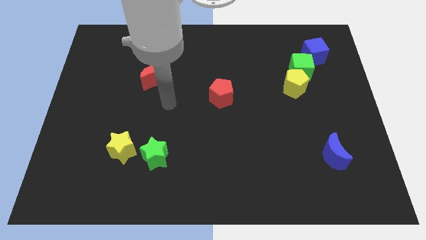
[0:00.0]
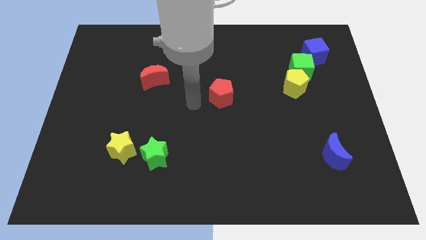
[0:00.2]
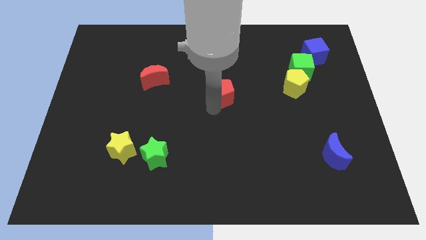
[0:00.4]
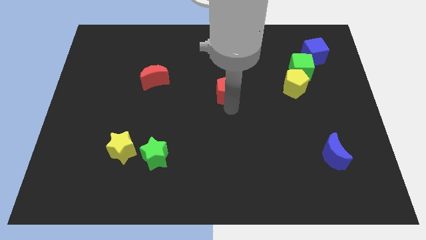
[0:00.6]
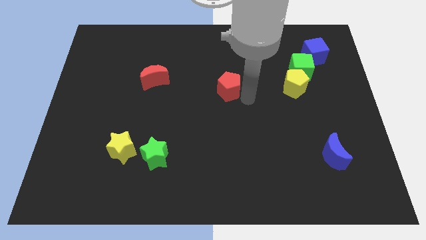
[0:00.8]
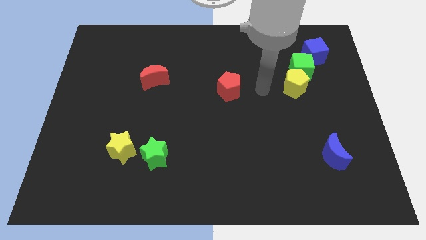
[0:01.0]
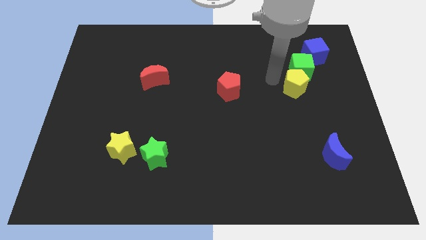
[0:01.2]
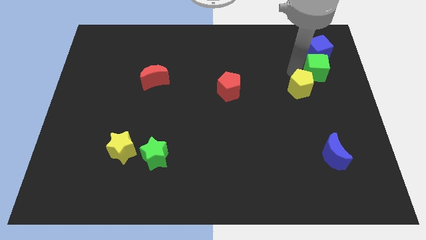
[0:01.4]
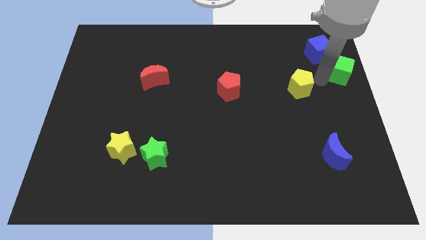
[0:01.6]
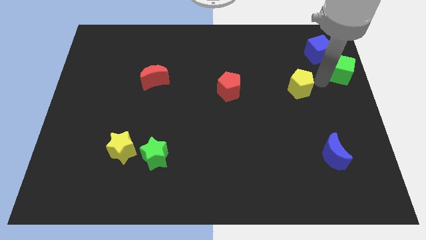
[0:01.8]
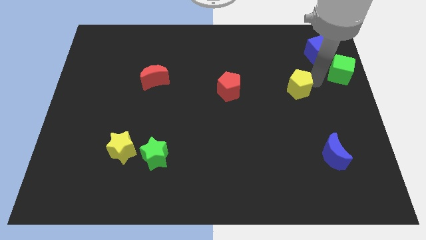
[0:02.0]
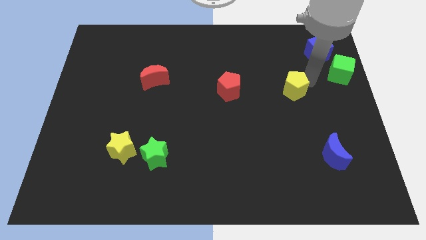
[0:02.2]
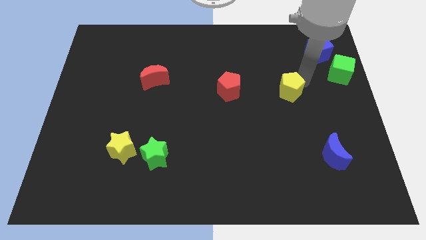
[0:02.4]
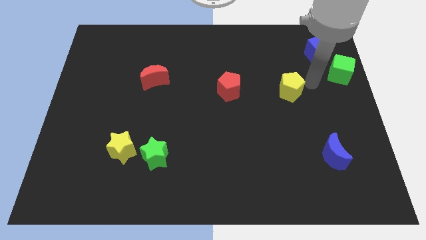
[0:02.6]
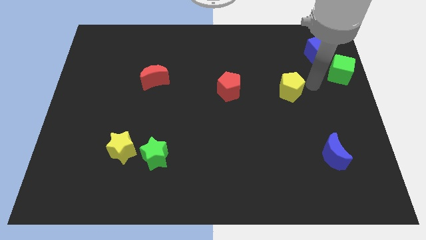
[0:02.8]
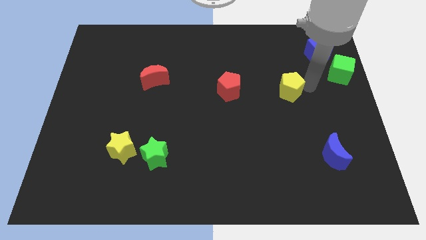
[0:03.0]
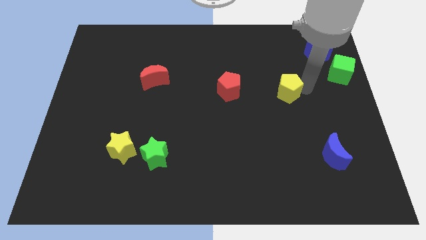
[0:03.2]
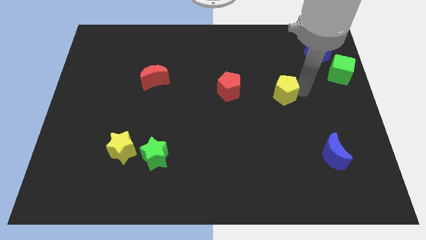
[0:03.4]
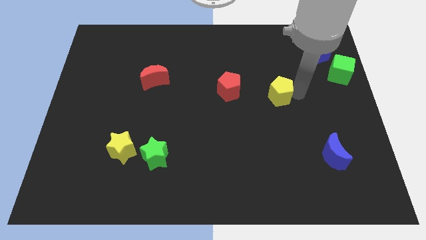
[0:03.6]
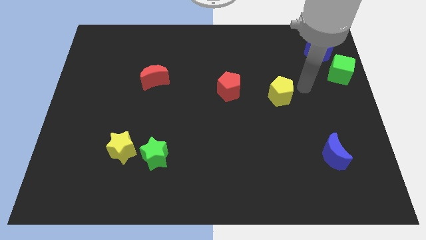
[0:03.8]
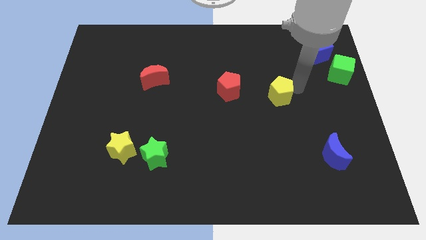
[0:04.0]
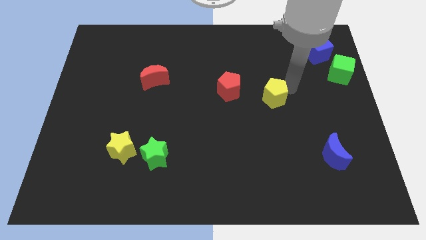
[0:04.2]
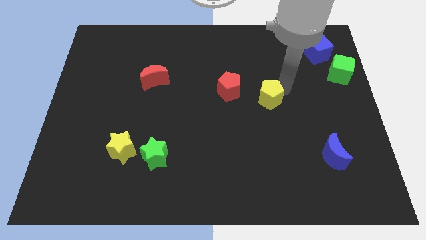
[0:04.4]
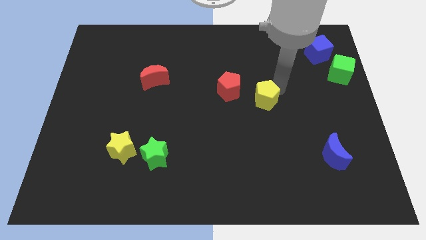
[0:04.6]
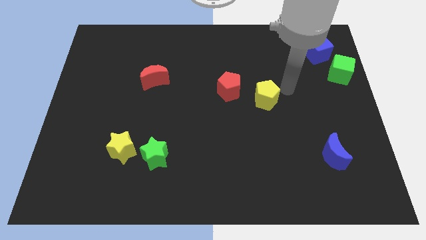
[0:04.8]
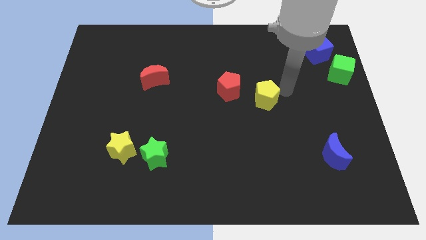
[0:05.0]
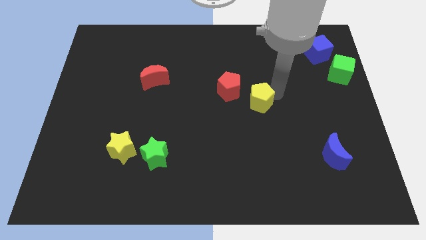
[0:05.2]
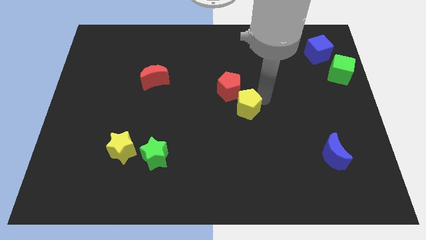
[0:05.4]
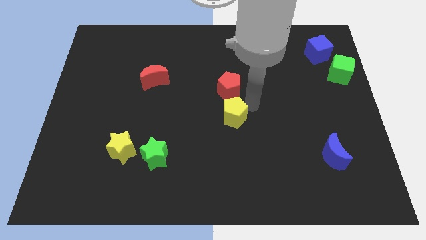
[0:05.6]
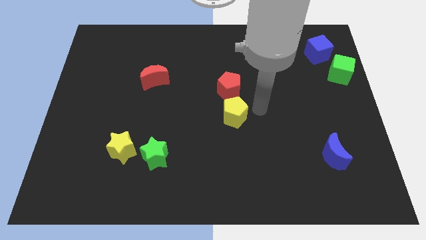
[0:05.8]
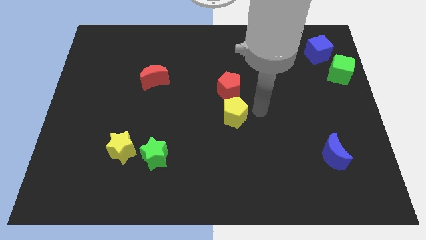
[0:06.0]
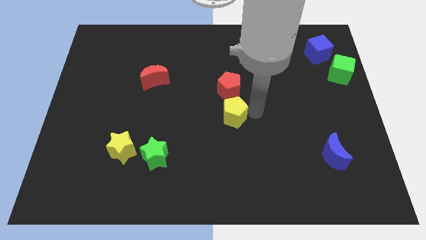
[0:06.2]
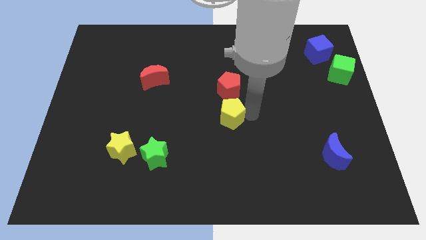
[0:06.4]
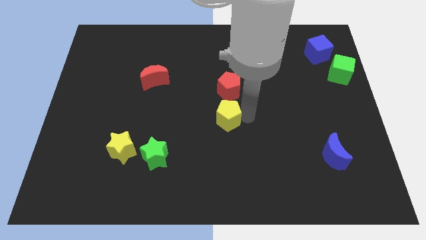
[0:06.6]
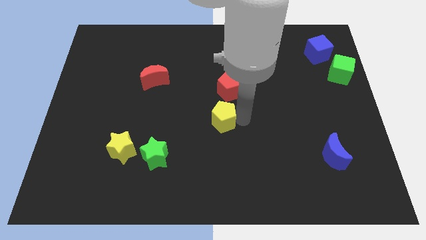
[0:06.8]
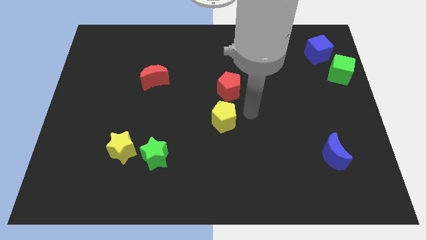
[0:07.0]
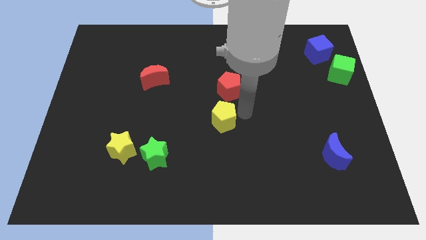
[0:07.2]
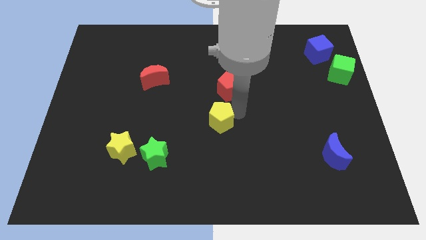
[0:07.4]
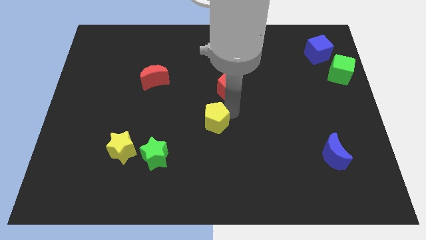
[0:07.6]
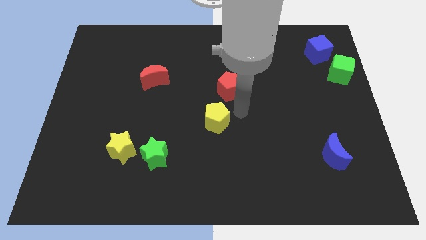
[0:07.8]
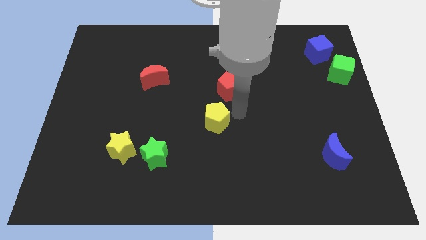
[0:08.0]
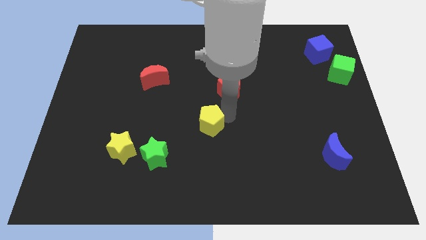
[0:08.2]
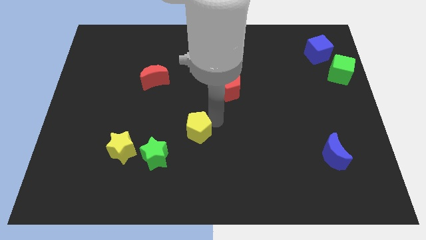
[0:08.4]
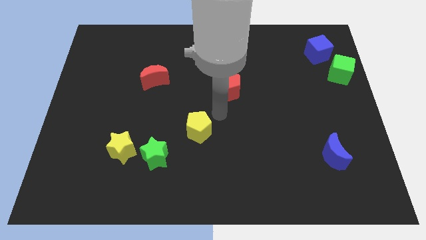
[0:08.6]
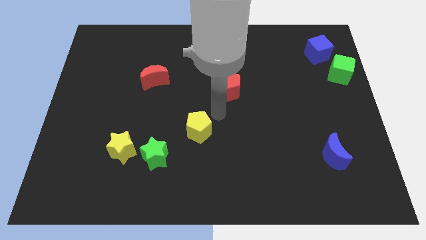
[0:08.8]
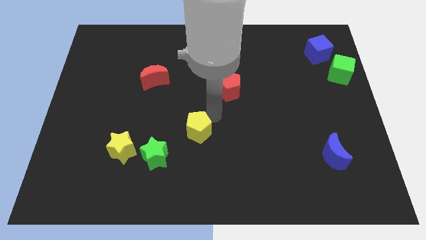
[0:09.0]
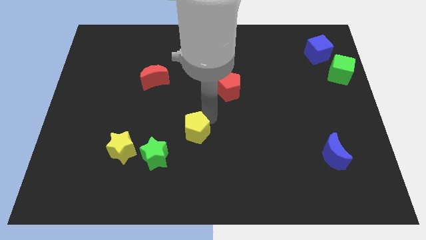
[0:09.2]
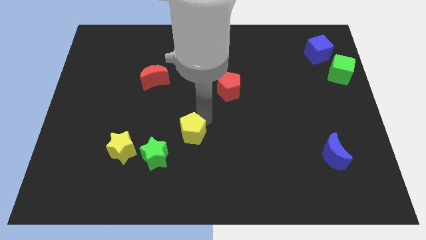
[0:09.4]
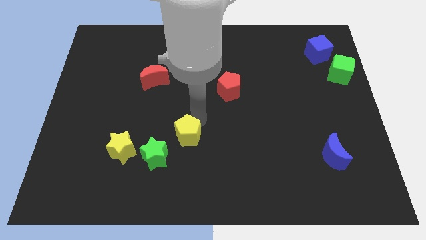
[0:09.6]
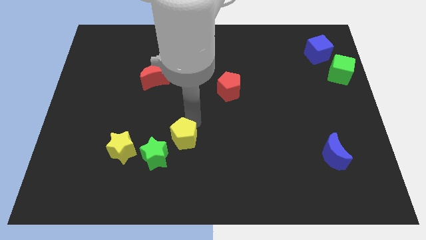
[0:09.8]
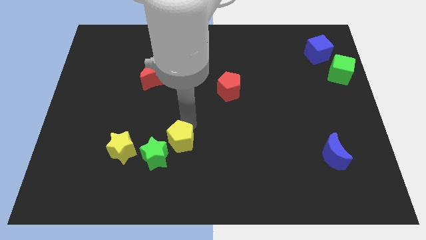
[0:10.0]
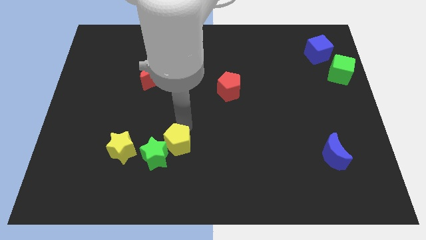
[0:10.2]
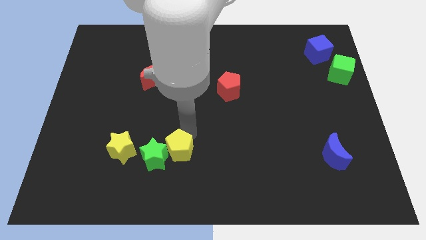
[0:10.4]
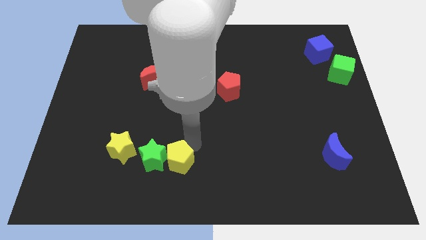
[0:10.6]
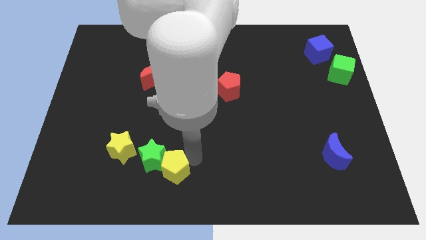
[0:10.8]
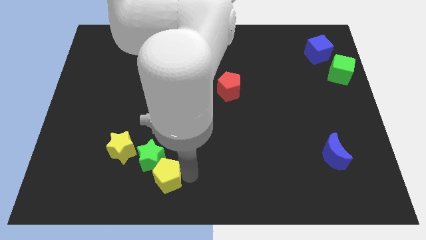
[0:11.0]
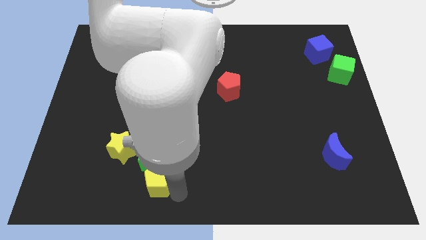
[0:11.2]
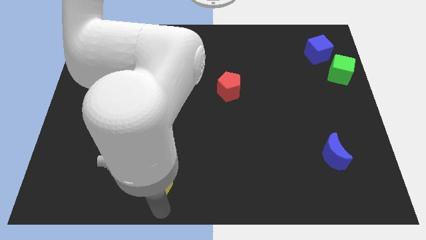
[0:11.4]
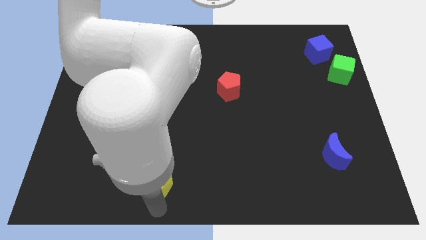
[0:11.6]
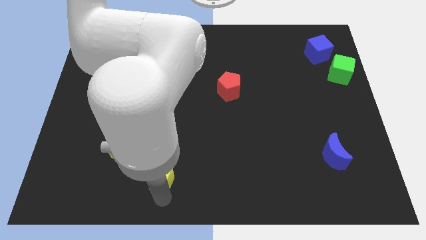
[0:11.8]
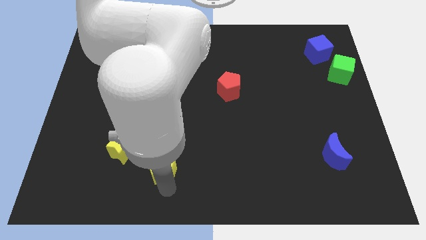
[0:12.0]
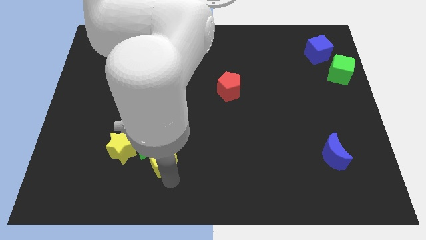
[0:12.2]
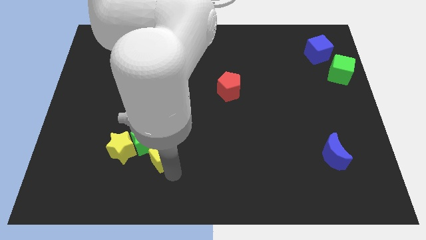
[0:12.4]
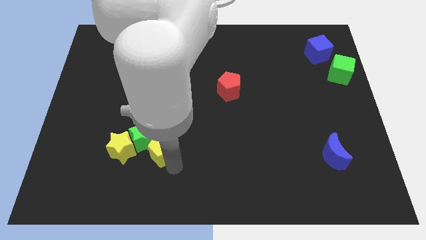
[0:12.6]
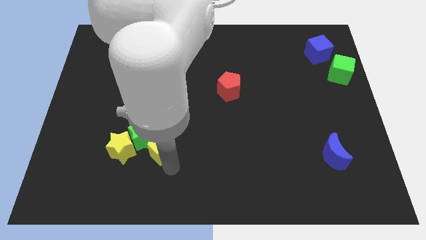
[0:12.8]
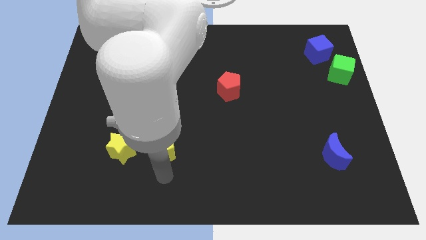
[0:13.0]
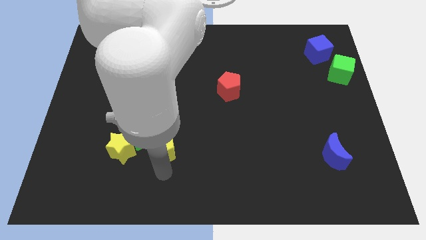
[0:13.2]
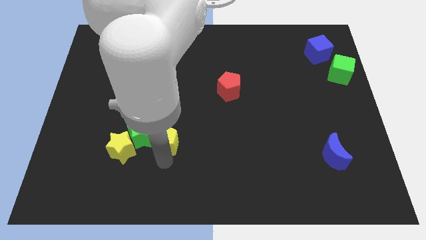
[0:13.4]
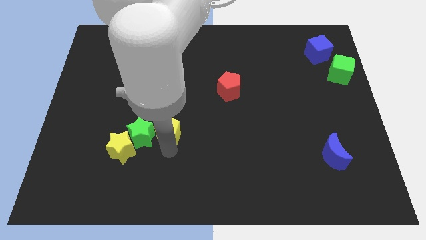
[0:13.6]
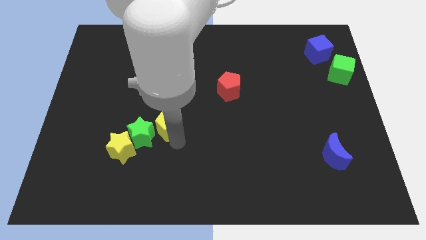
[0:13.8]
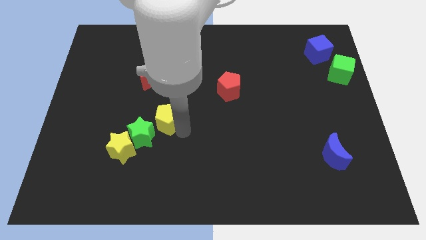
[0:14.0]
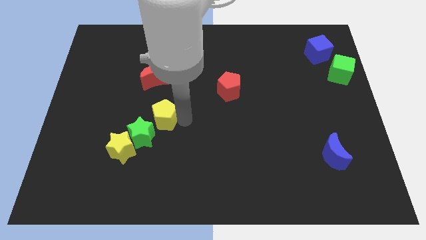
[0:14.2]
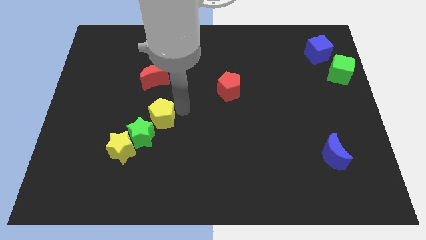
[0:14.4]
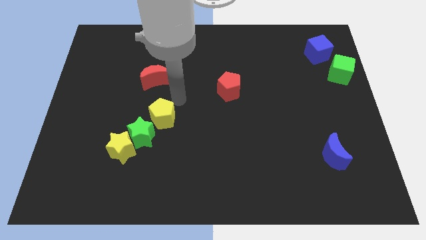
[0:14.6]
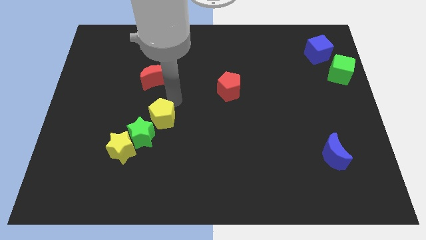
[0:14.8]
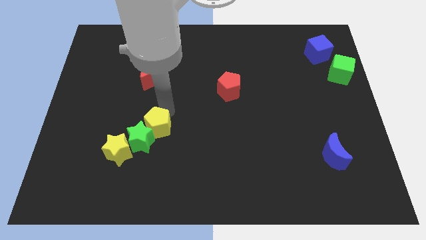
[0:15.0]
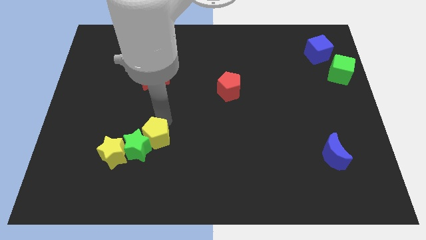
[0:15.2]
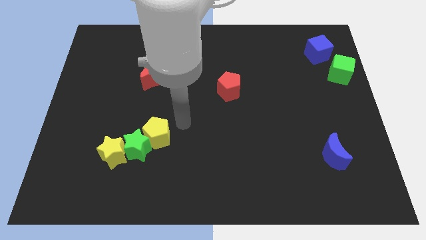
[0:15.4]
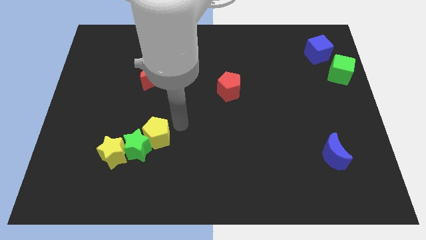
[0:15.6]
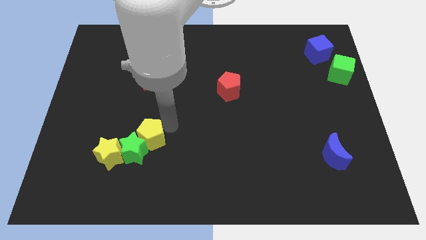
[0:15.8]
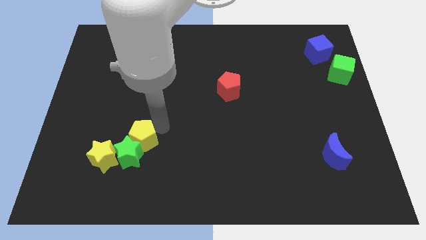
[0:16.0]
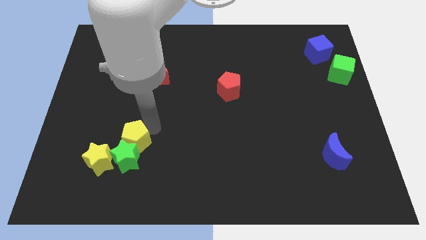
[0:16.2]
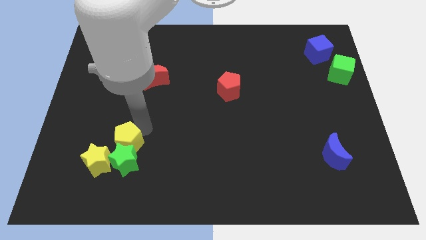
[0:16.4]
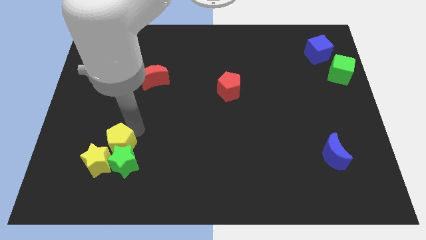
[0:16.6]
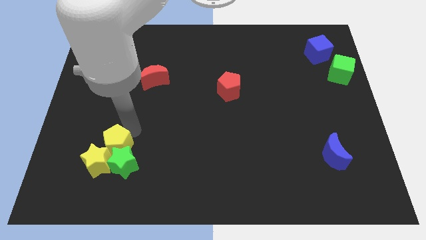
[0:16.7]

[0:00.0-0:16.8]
slide the yellow pentagon towards the yellow star
